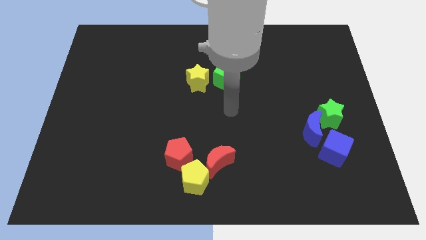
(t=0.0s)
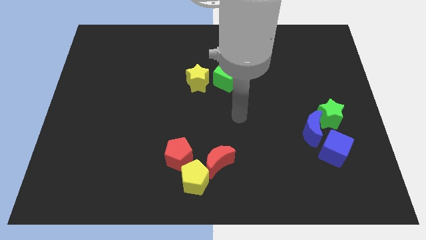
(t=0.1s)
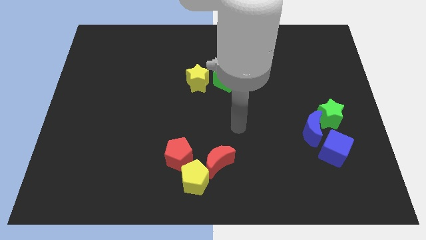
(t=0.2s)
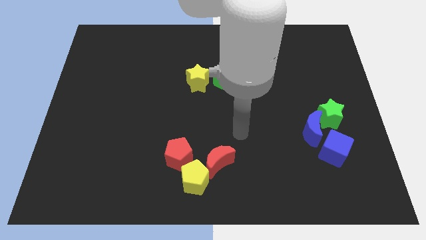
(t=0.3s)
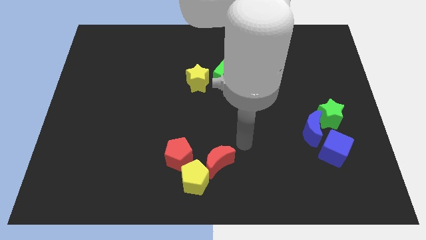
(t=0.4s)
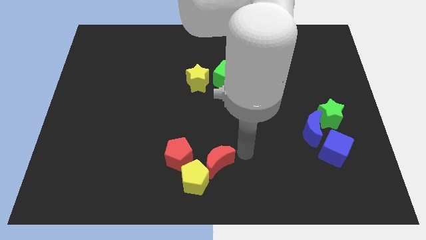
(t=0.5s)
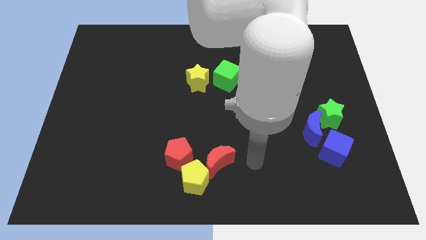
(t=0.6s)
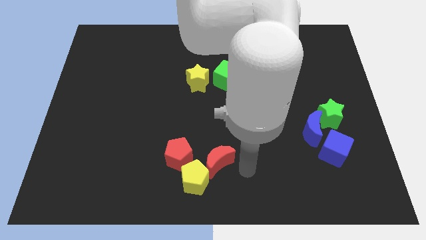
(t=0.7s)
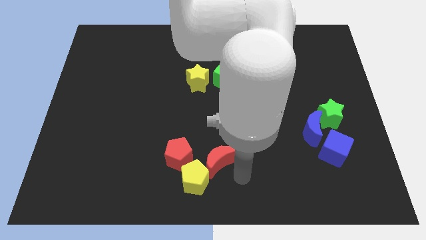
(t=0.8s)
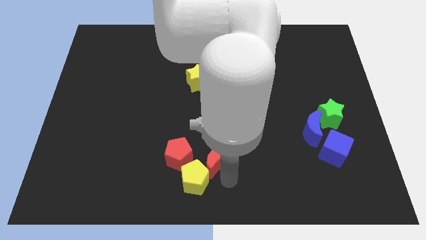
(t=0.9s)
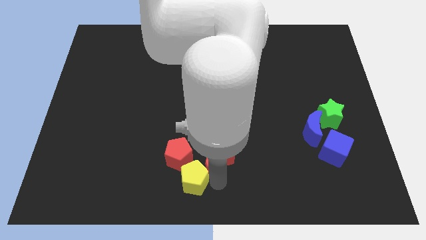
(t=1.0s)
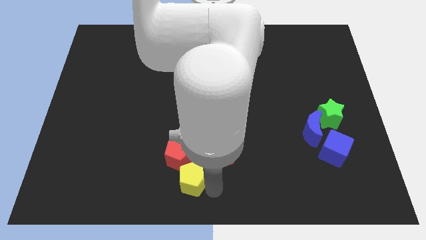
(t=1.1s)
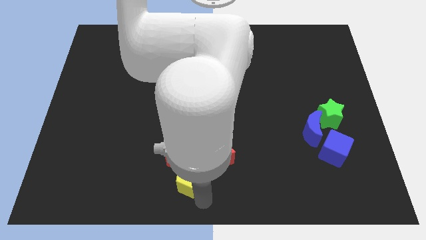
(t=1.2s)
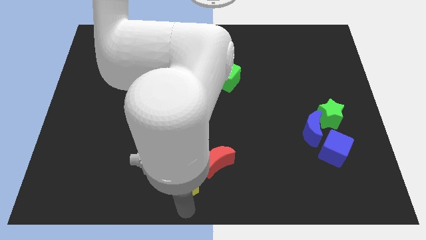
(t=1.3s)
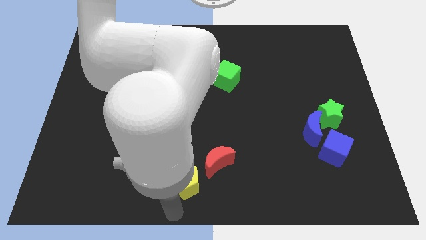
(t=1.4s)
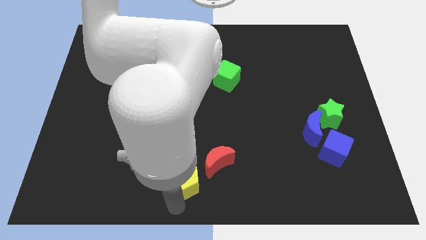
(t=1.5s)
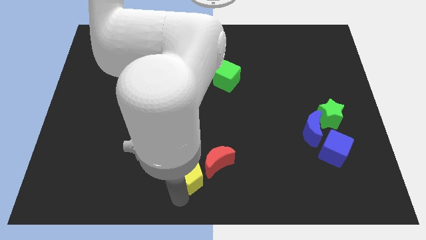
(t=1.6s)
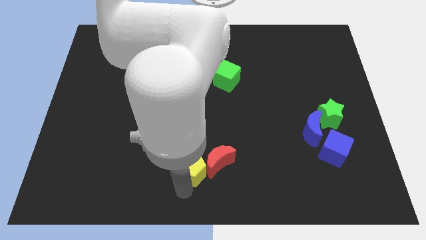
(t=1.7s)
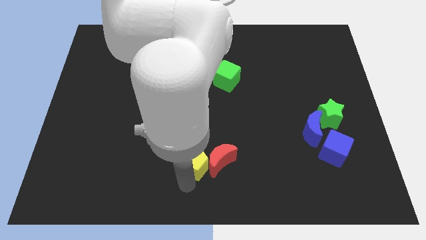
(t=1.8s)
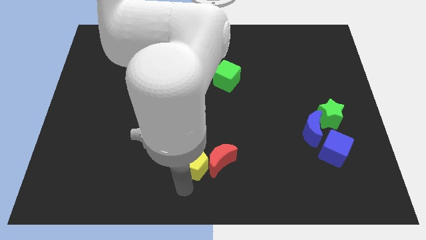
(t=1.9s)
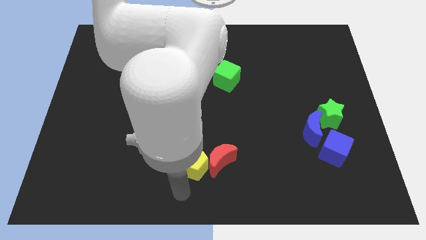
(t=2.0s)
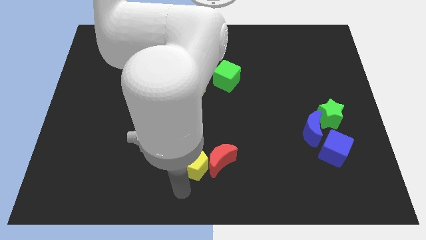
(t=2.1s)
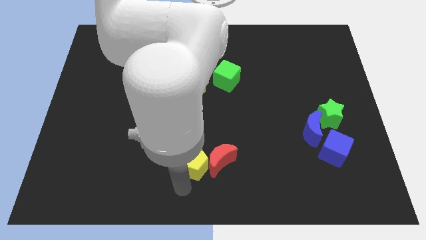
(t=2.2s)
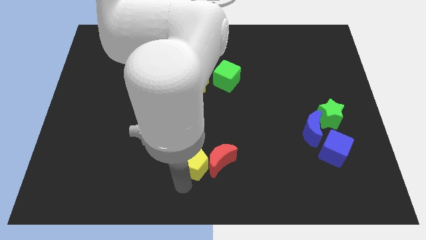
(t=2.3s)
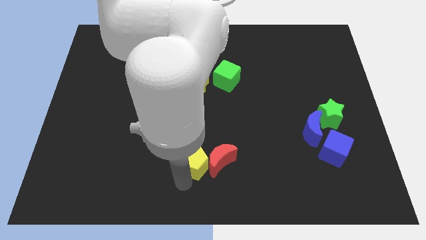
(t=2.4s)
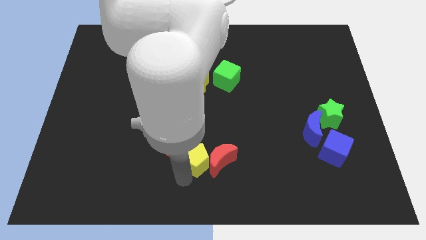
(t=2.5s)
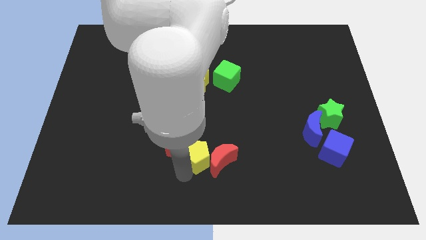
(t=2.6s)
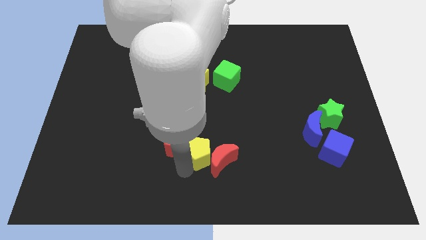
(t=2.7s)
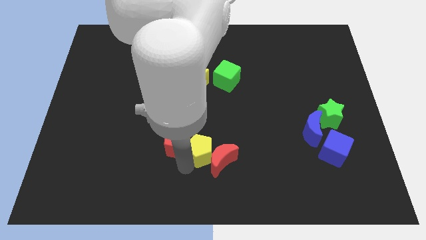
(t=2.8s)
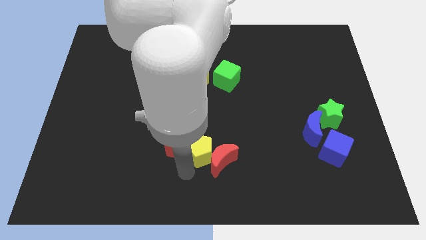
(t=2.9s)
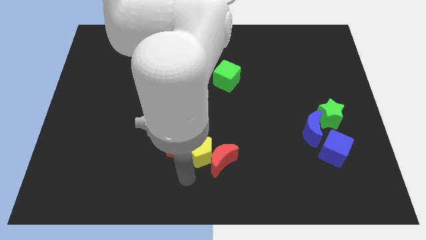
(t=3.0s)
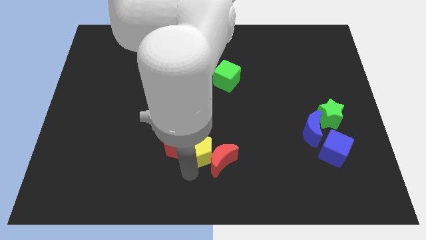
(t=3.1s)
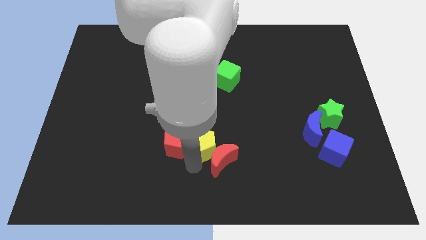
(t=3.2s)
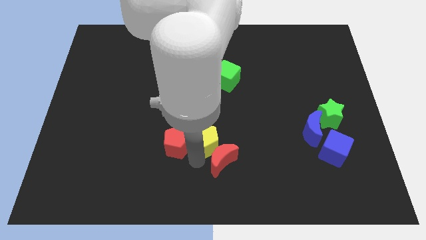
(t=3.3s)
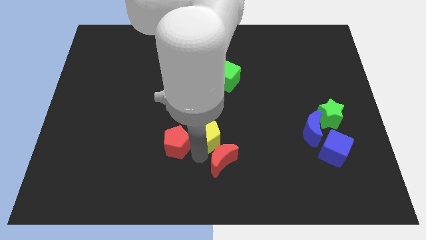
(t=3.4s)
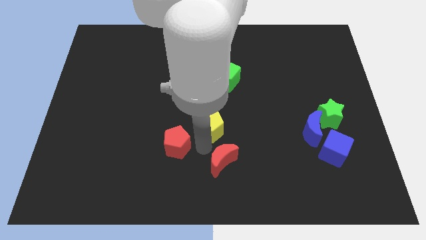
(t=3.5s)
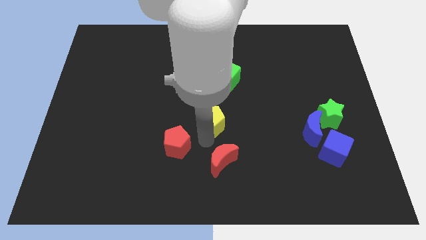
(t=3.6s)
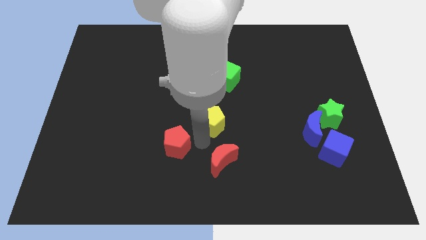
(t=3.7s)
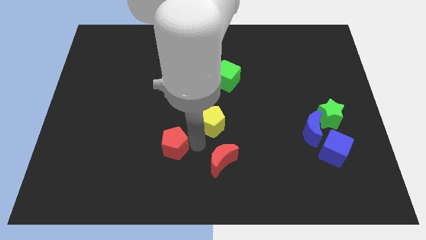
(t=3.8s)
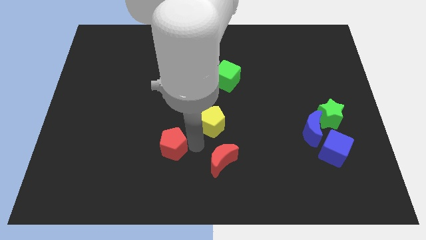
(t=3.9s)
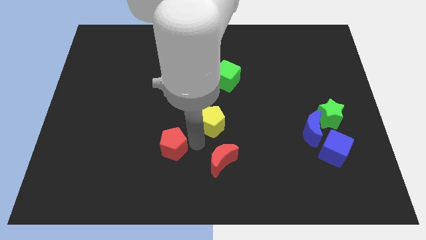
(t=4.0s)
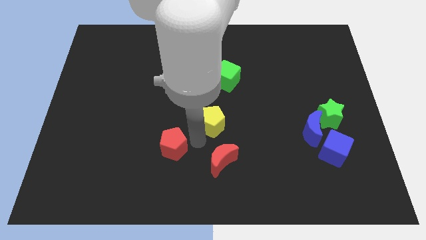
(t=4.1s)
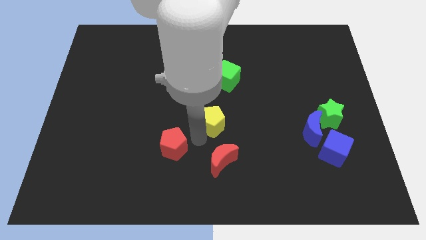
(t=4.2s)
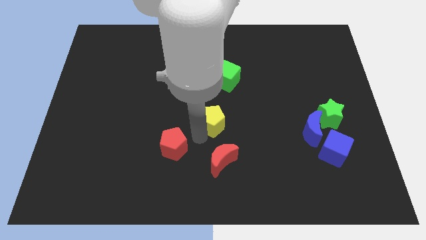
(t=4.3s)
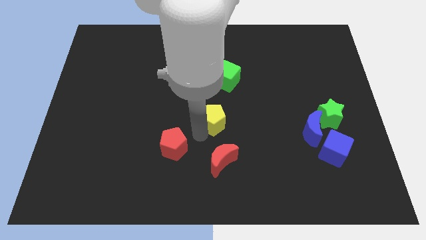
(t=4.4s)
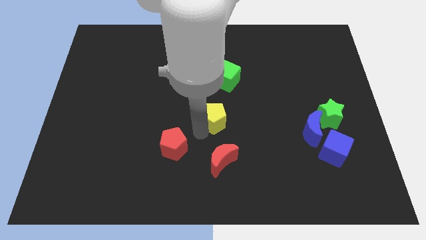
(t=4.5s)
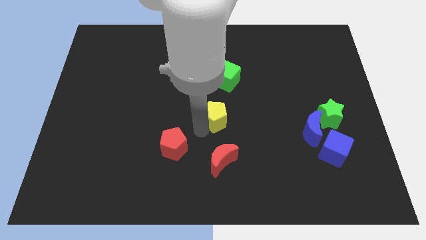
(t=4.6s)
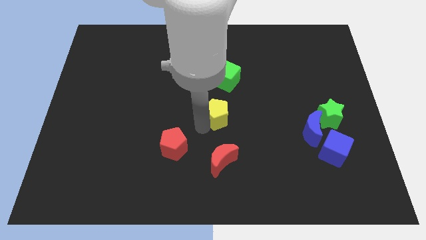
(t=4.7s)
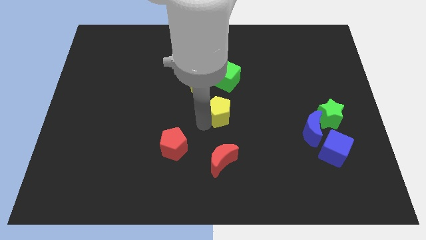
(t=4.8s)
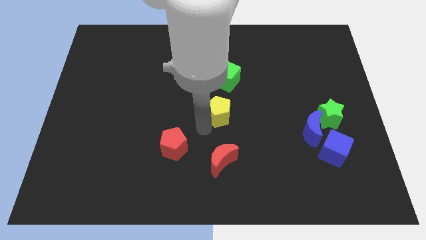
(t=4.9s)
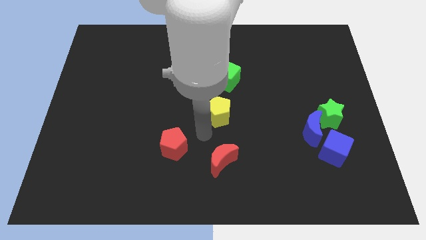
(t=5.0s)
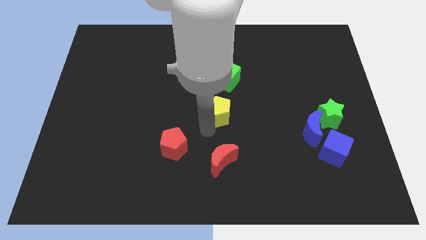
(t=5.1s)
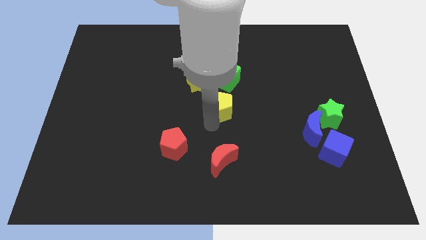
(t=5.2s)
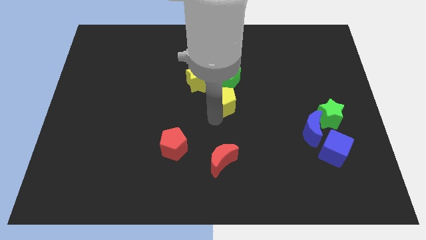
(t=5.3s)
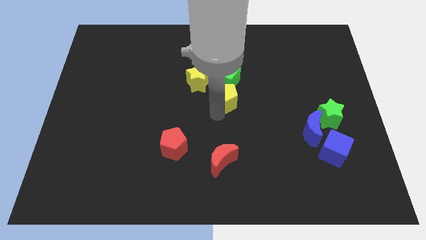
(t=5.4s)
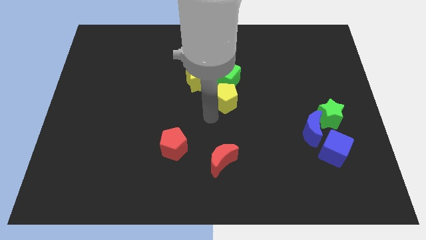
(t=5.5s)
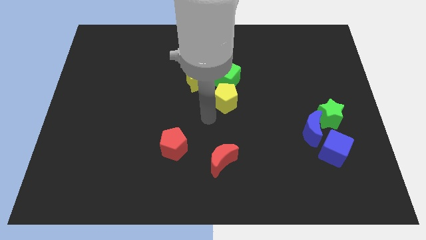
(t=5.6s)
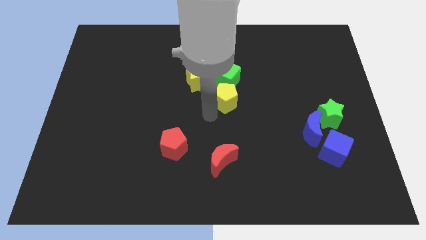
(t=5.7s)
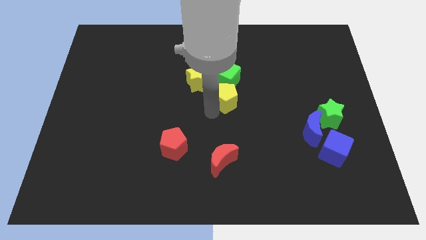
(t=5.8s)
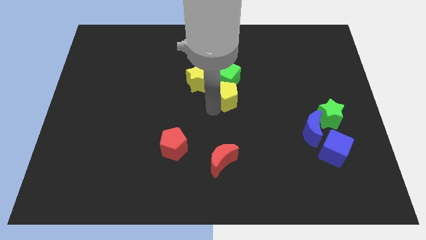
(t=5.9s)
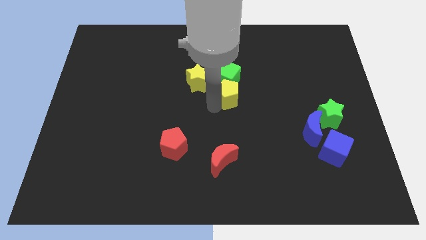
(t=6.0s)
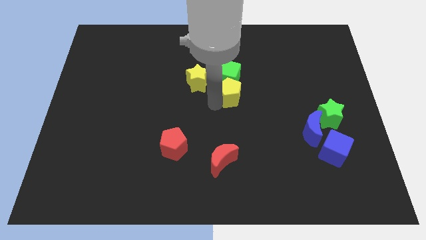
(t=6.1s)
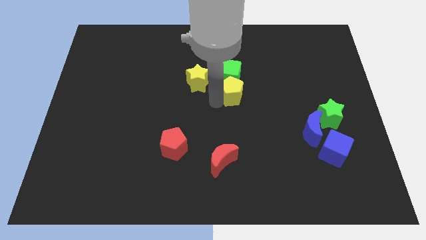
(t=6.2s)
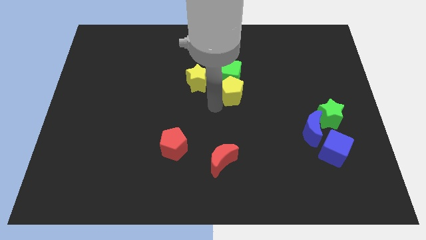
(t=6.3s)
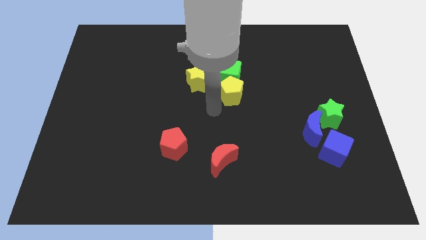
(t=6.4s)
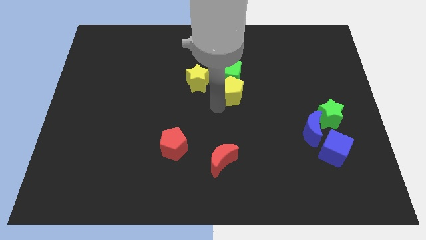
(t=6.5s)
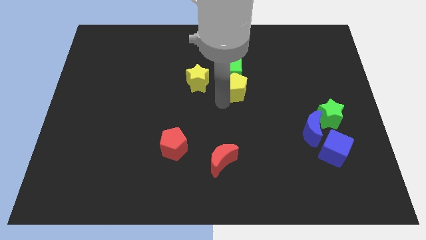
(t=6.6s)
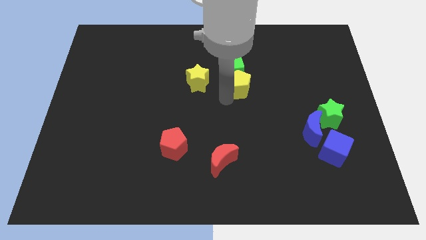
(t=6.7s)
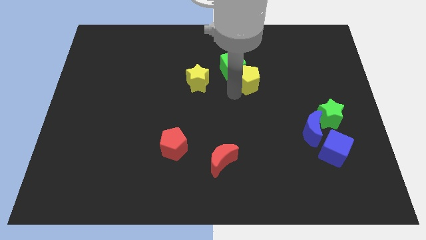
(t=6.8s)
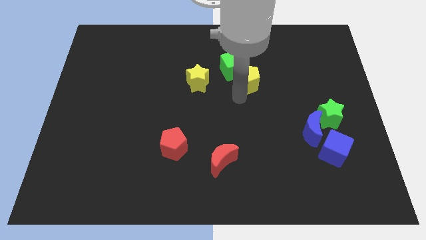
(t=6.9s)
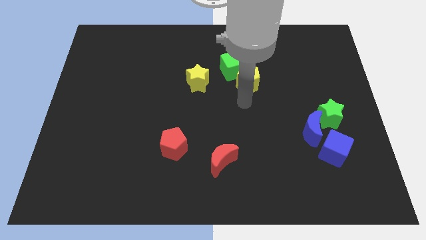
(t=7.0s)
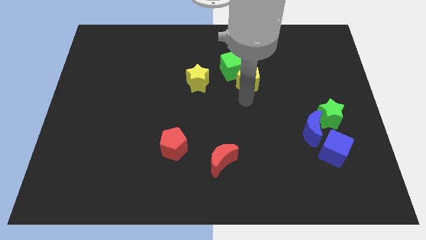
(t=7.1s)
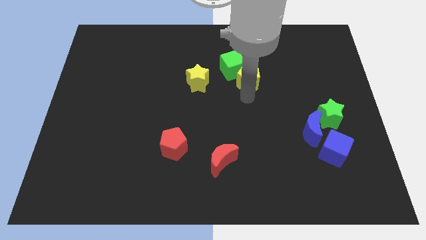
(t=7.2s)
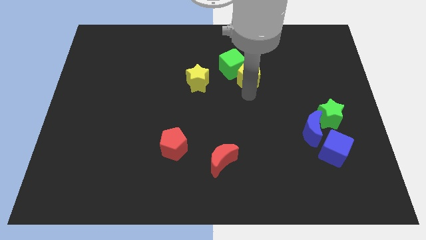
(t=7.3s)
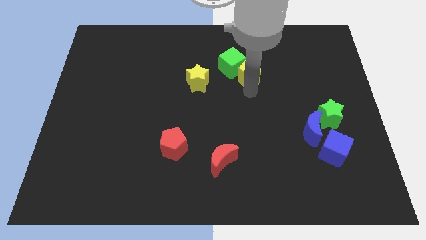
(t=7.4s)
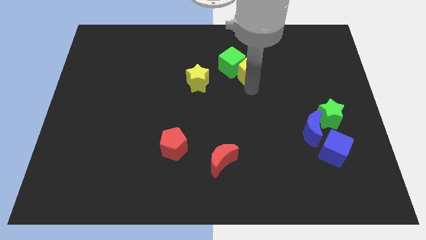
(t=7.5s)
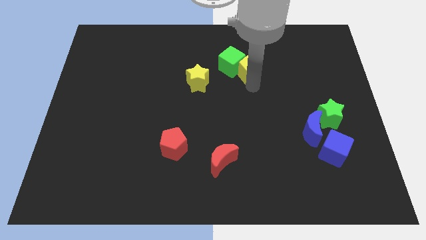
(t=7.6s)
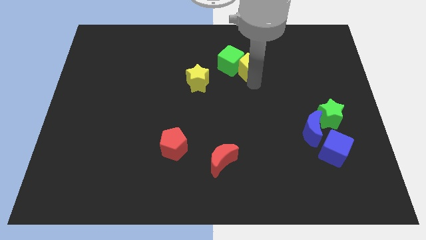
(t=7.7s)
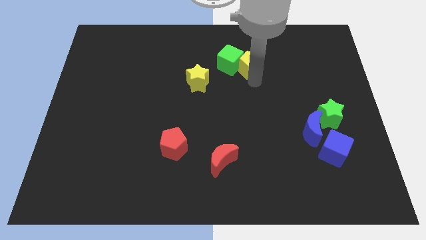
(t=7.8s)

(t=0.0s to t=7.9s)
move the yellow pentagon to the top right of the green cube

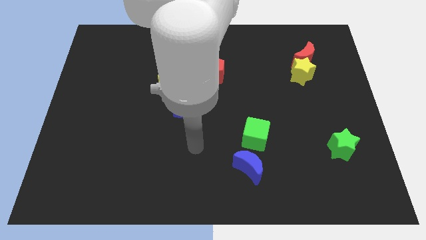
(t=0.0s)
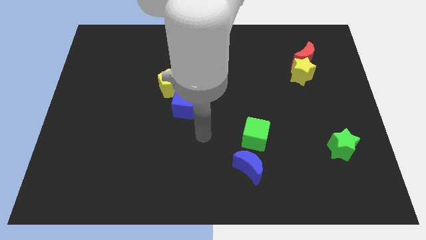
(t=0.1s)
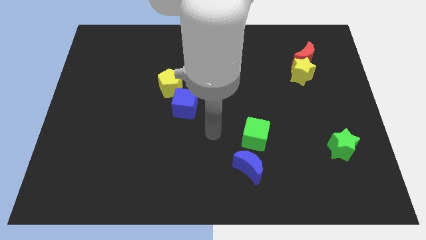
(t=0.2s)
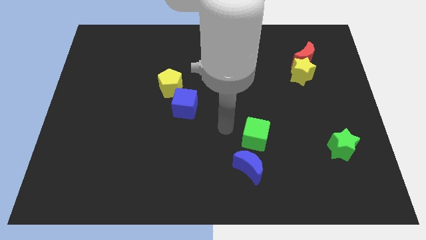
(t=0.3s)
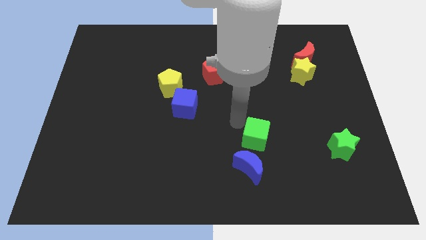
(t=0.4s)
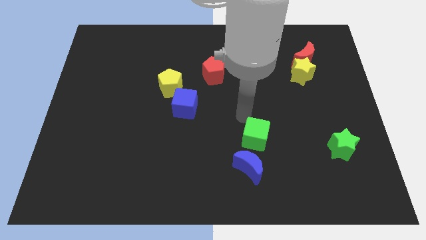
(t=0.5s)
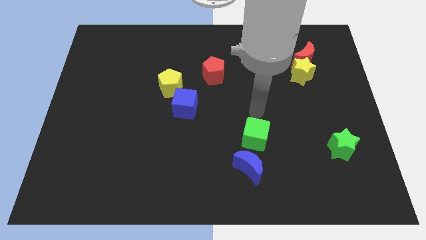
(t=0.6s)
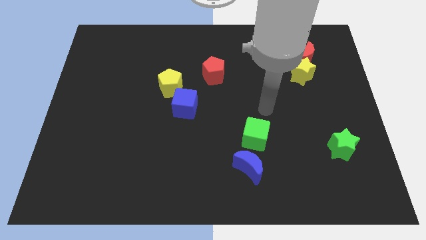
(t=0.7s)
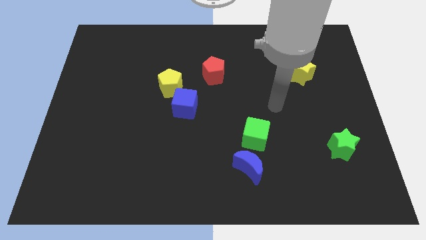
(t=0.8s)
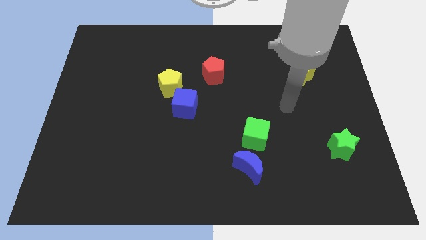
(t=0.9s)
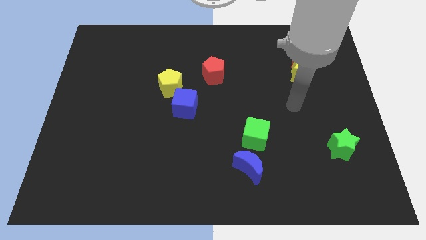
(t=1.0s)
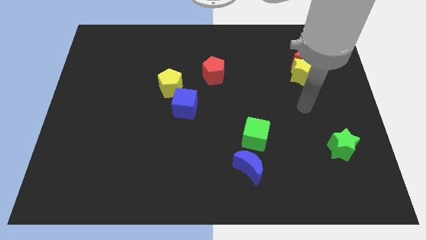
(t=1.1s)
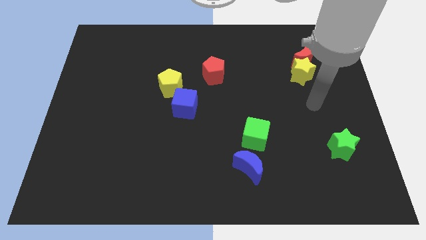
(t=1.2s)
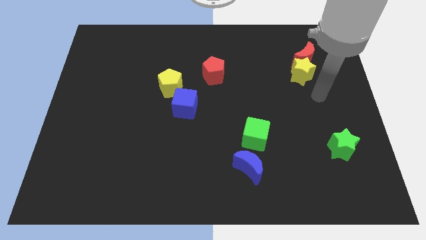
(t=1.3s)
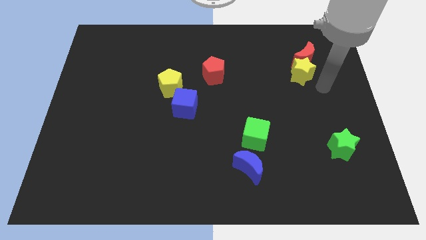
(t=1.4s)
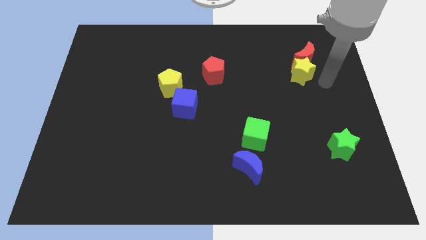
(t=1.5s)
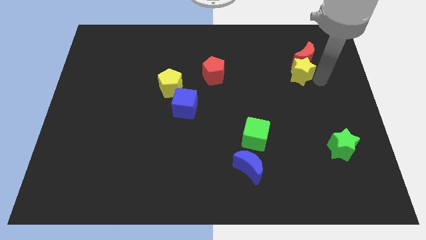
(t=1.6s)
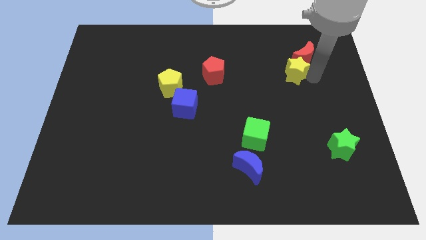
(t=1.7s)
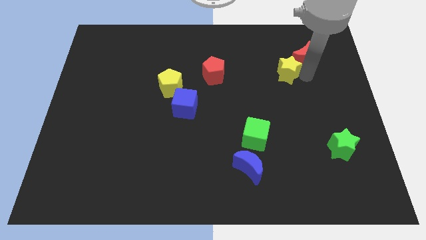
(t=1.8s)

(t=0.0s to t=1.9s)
slide the yellow star to the left of the red moon
